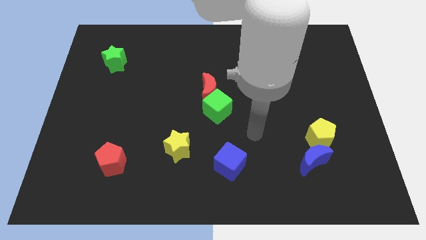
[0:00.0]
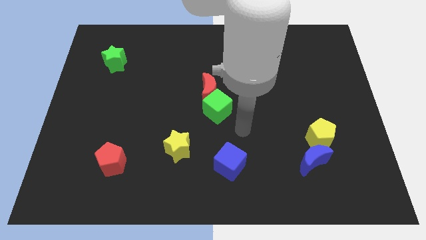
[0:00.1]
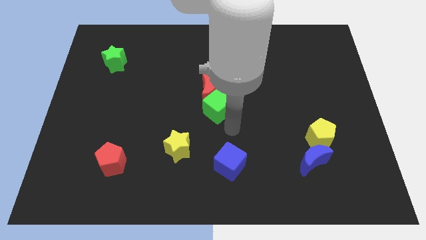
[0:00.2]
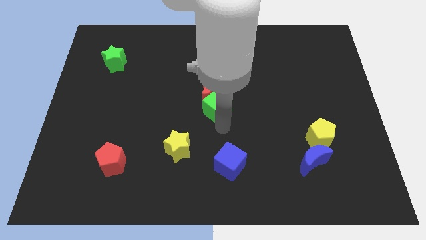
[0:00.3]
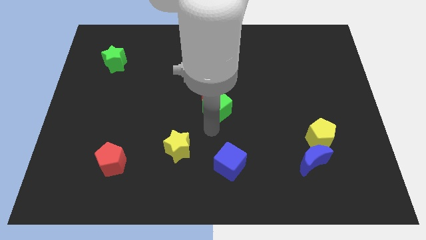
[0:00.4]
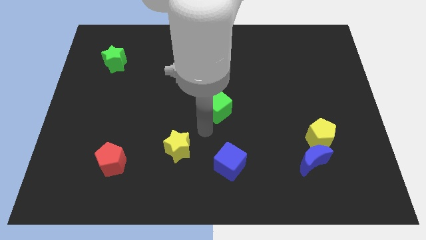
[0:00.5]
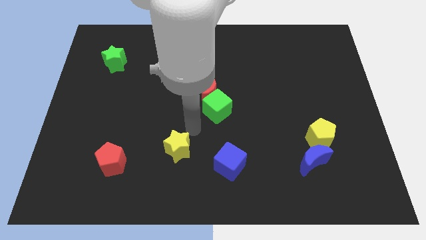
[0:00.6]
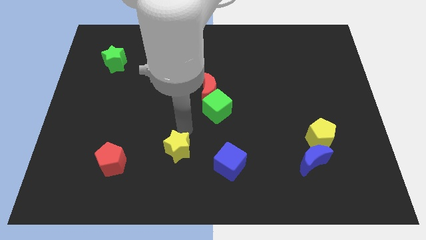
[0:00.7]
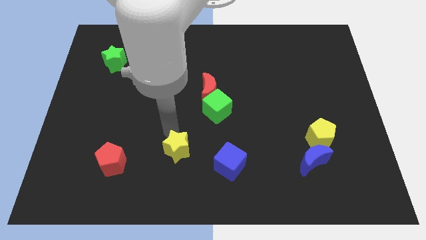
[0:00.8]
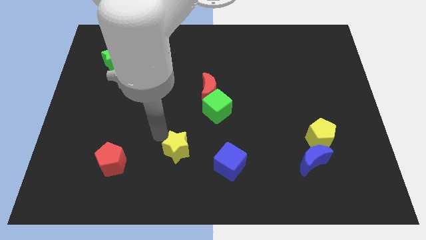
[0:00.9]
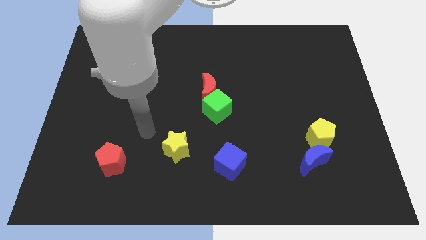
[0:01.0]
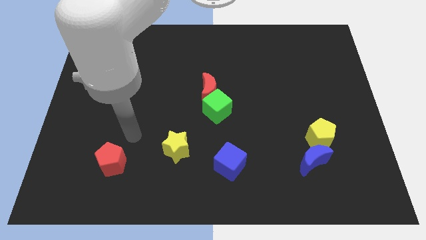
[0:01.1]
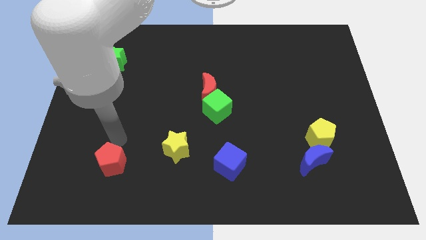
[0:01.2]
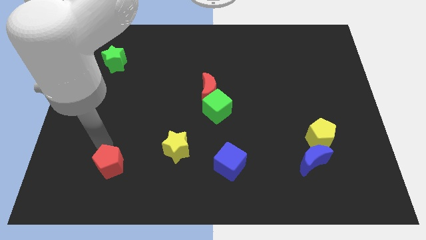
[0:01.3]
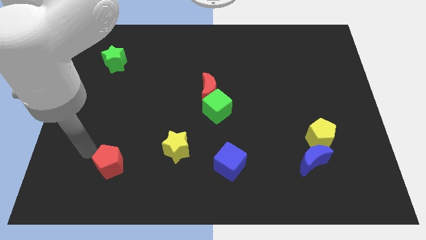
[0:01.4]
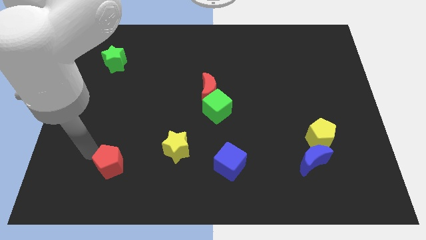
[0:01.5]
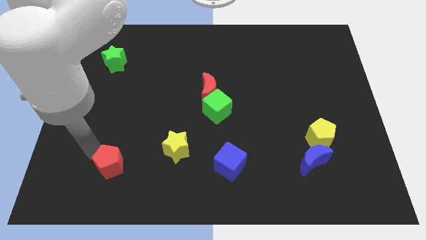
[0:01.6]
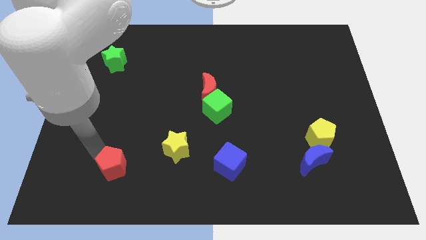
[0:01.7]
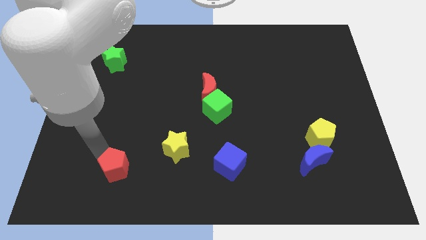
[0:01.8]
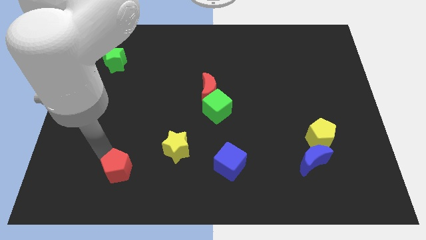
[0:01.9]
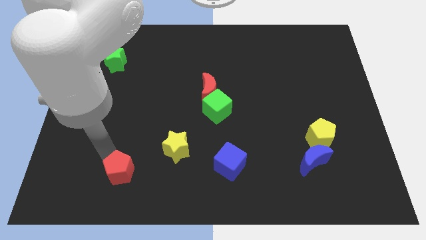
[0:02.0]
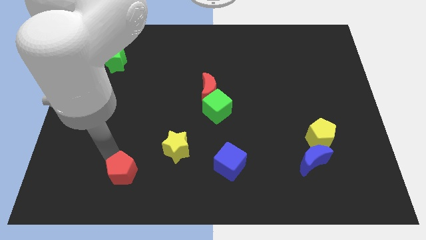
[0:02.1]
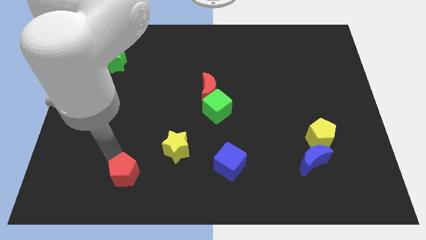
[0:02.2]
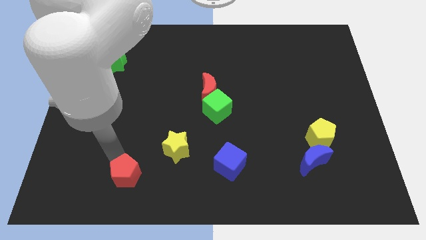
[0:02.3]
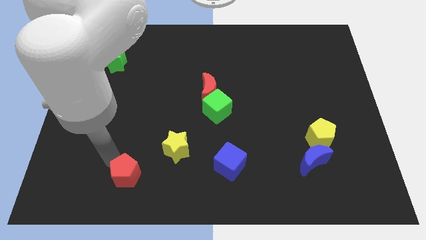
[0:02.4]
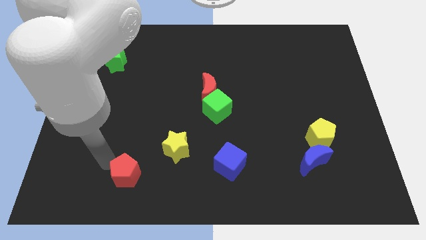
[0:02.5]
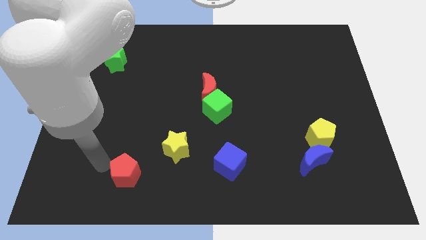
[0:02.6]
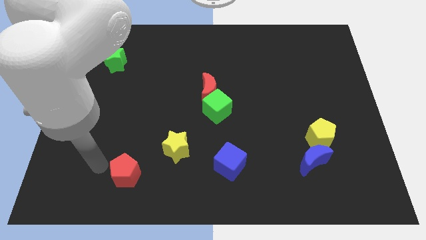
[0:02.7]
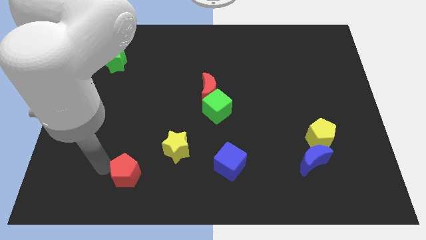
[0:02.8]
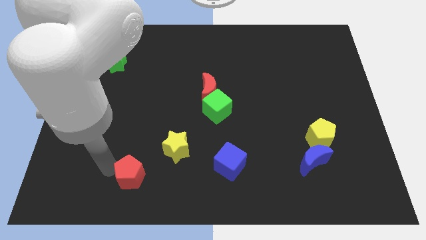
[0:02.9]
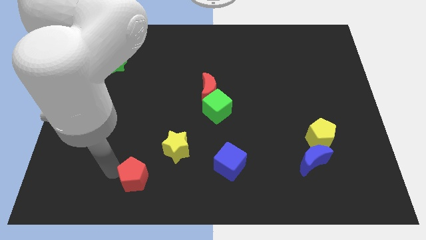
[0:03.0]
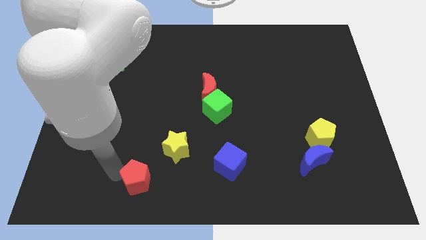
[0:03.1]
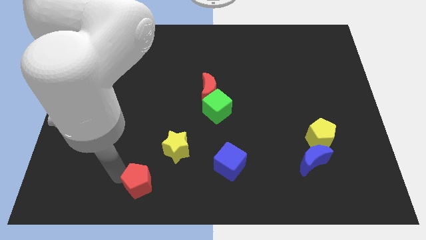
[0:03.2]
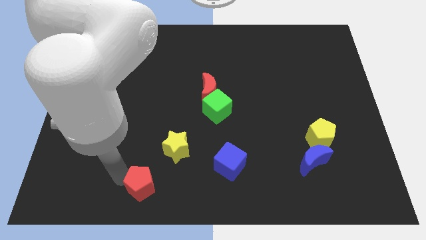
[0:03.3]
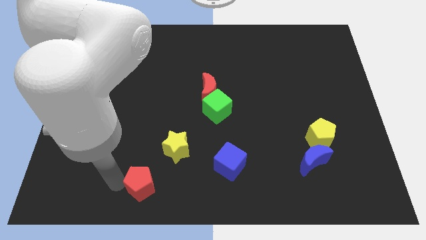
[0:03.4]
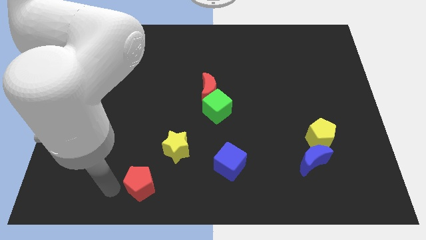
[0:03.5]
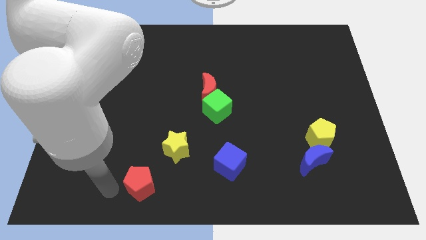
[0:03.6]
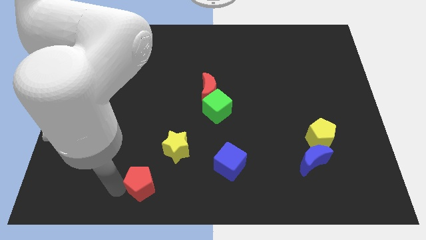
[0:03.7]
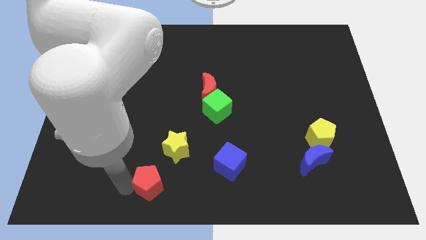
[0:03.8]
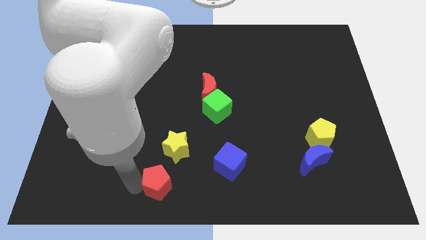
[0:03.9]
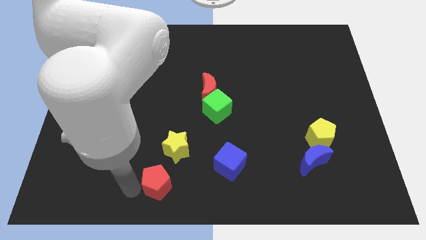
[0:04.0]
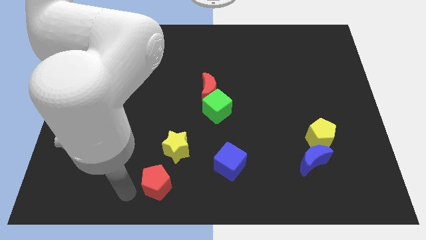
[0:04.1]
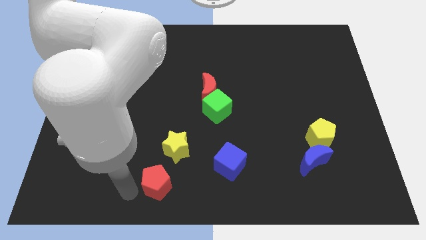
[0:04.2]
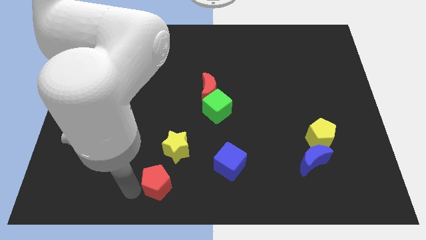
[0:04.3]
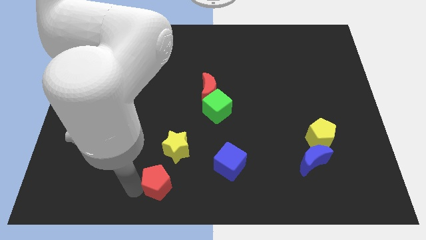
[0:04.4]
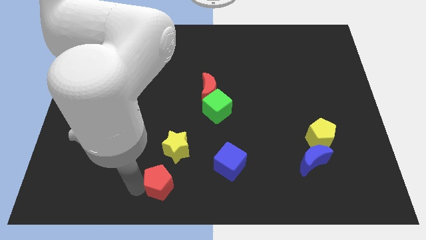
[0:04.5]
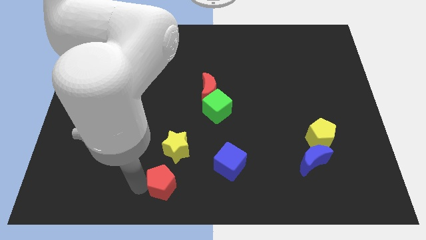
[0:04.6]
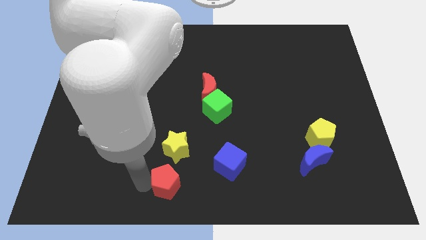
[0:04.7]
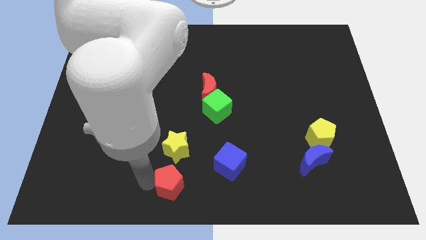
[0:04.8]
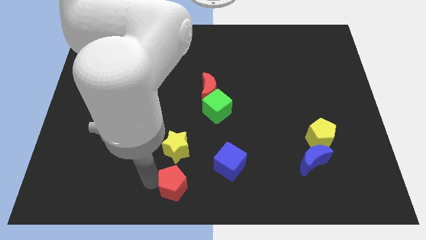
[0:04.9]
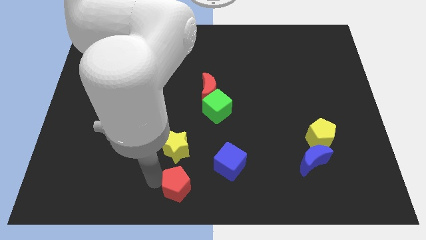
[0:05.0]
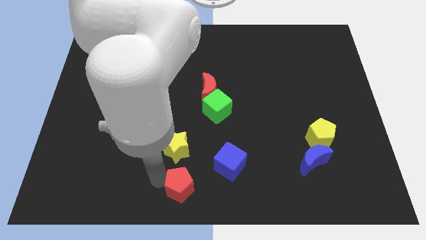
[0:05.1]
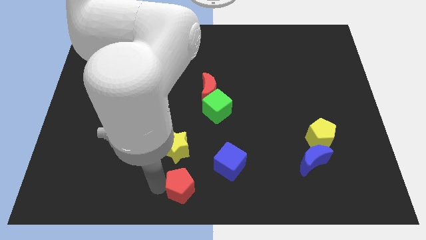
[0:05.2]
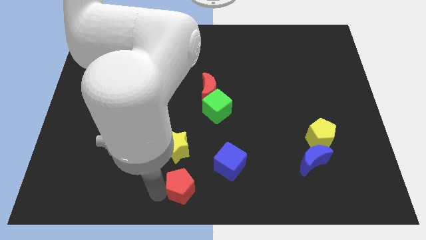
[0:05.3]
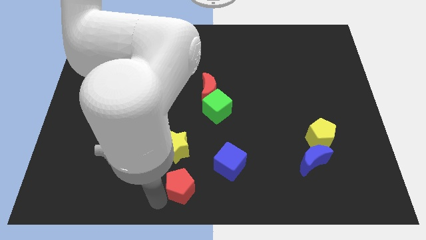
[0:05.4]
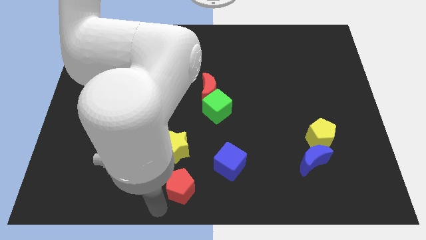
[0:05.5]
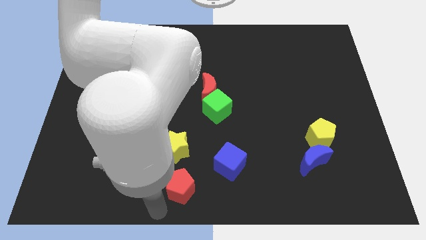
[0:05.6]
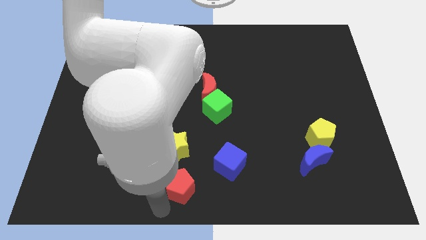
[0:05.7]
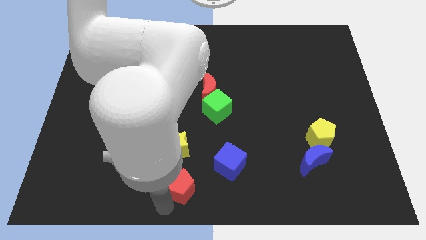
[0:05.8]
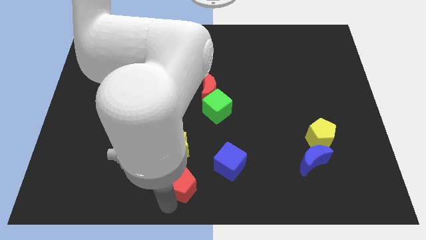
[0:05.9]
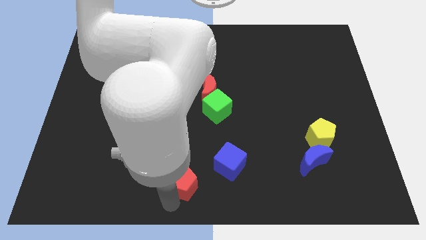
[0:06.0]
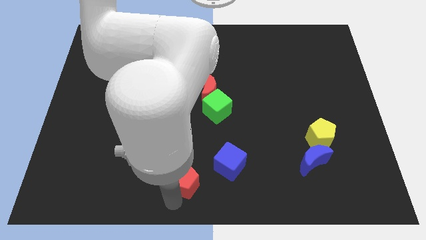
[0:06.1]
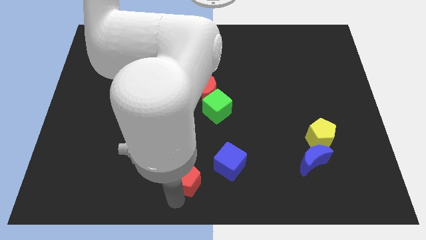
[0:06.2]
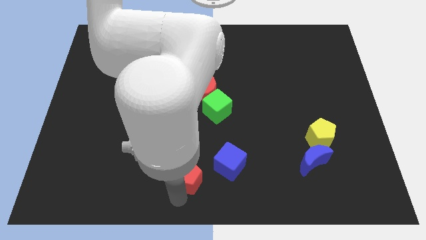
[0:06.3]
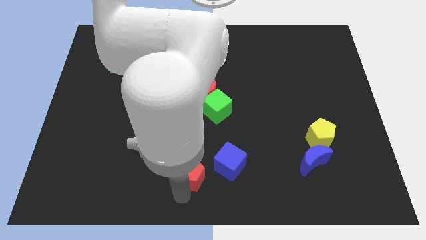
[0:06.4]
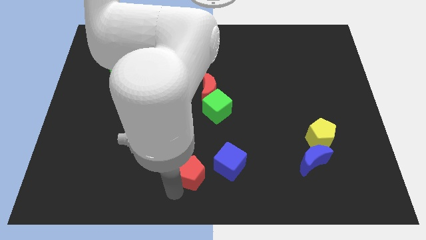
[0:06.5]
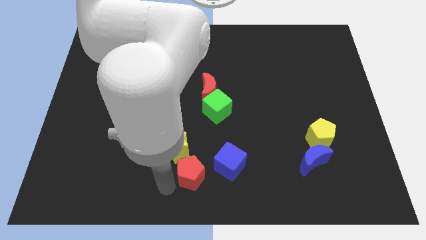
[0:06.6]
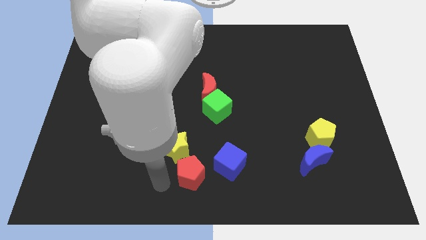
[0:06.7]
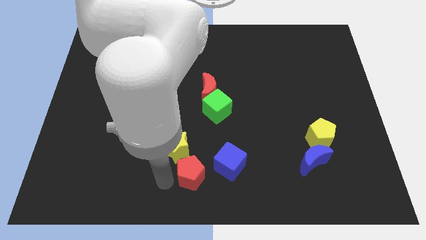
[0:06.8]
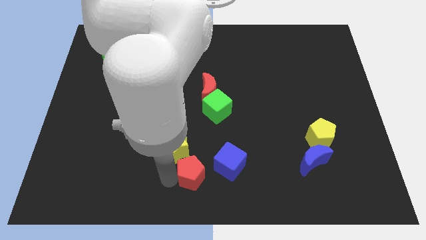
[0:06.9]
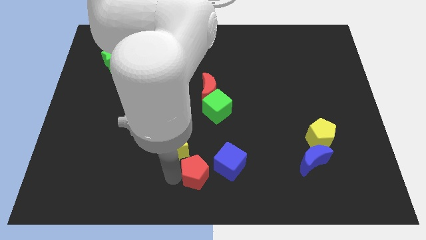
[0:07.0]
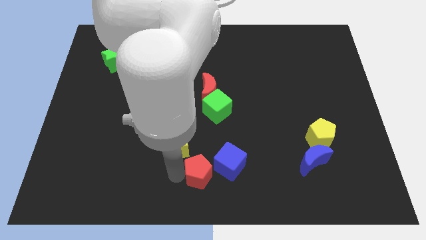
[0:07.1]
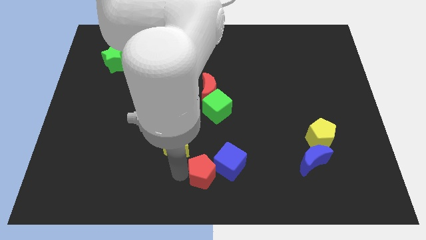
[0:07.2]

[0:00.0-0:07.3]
slide the red pentagon next to the blue cube
